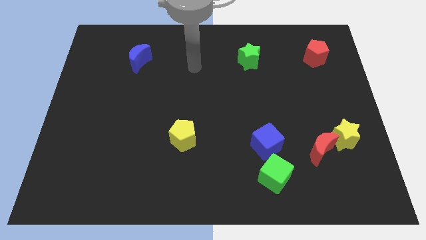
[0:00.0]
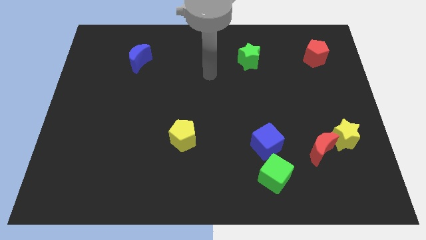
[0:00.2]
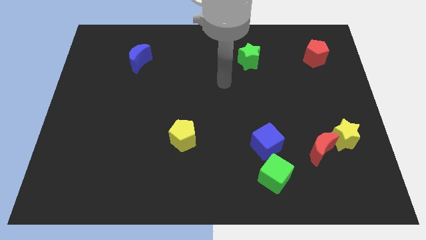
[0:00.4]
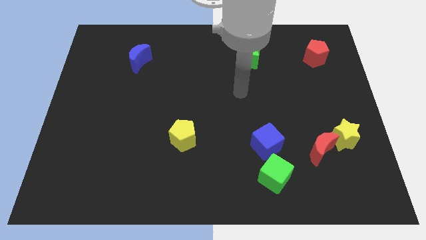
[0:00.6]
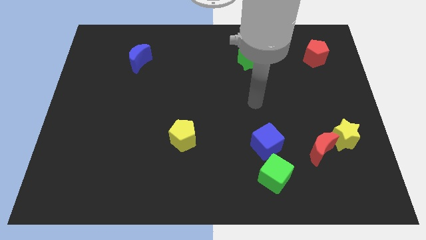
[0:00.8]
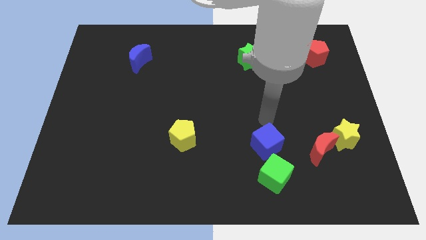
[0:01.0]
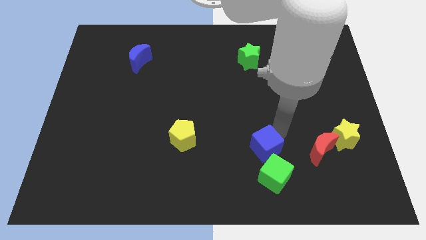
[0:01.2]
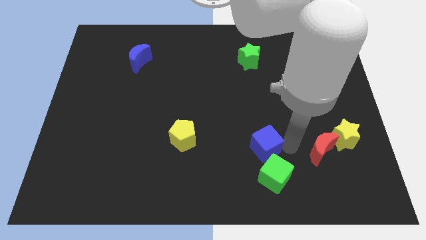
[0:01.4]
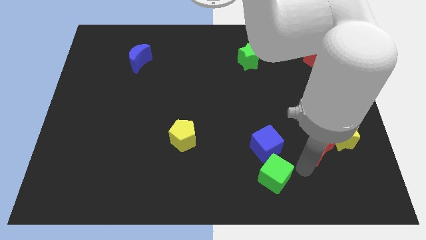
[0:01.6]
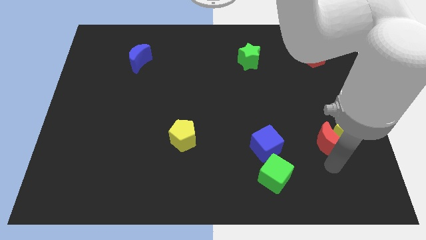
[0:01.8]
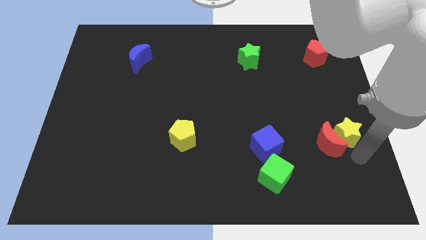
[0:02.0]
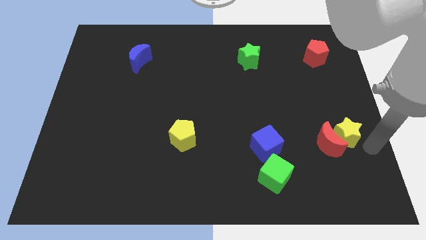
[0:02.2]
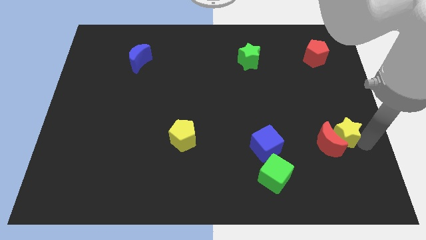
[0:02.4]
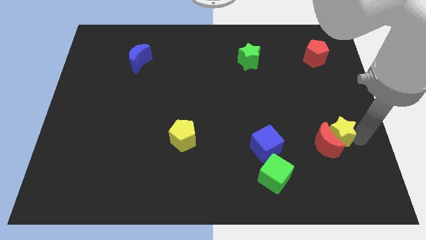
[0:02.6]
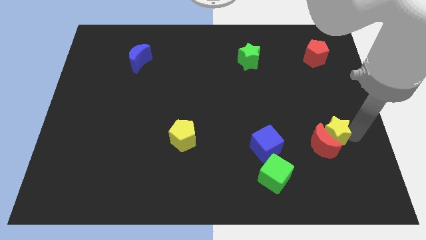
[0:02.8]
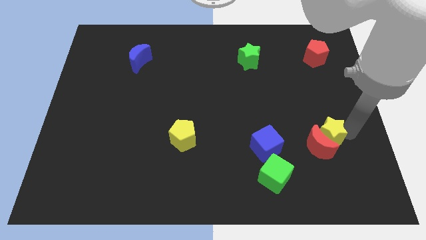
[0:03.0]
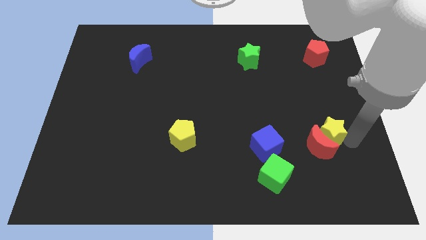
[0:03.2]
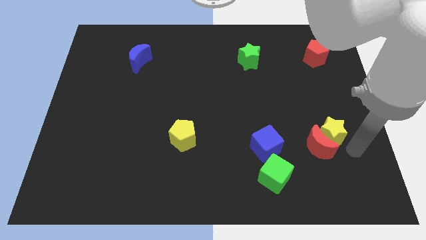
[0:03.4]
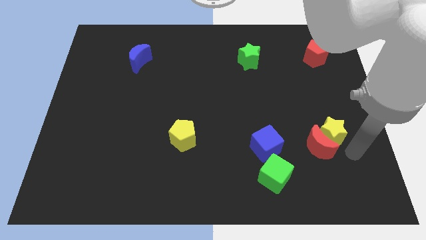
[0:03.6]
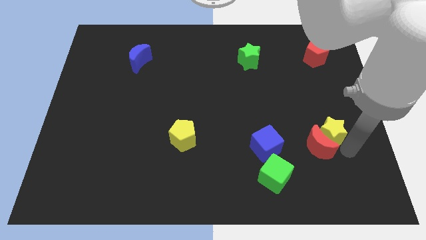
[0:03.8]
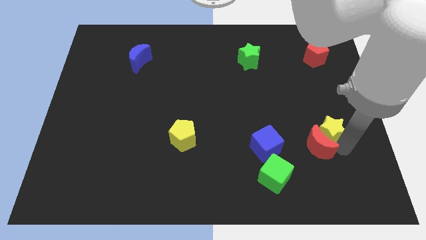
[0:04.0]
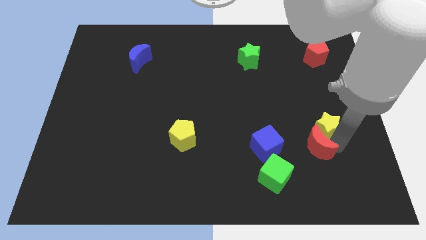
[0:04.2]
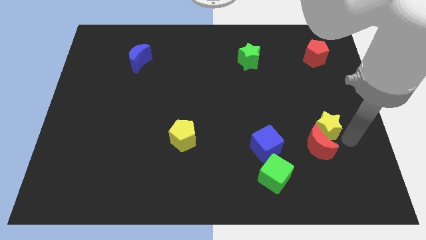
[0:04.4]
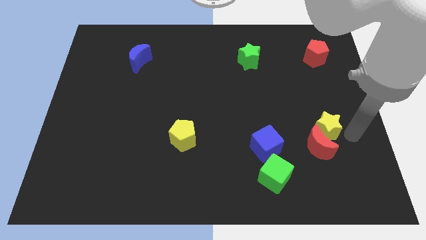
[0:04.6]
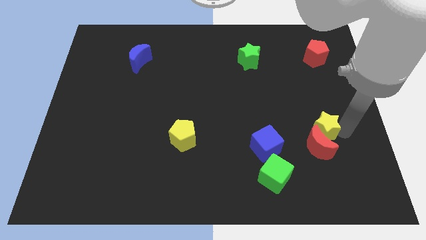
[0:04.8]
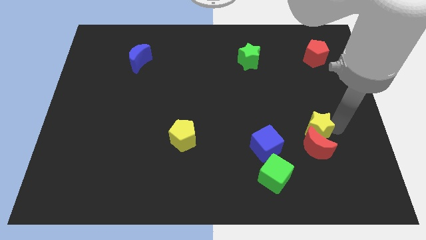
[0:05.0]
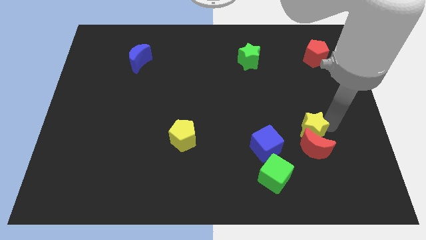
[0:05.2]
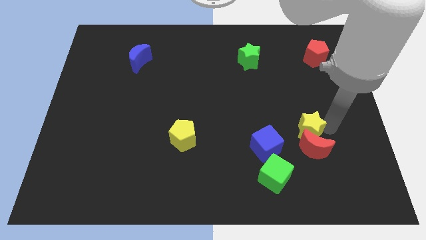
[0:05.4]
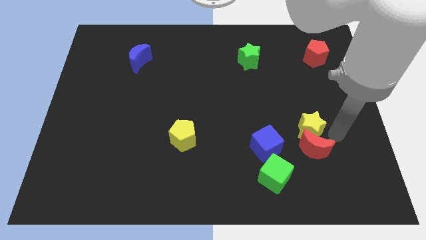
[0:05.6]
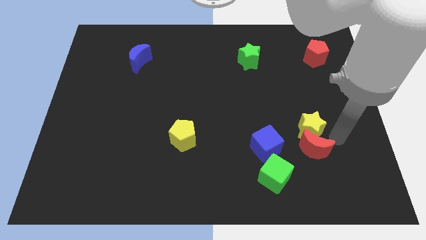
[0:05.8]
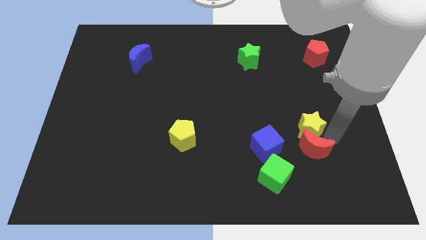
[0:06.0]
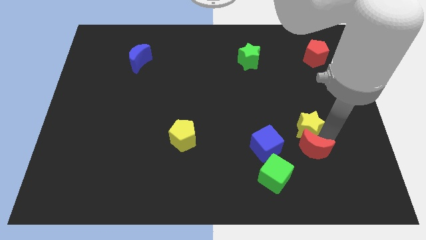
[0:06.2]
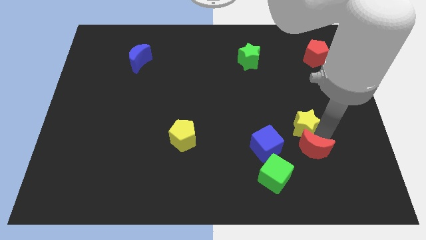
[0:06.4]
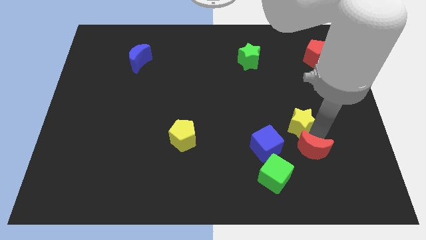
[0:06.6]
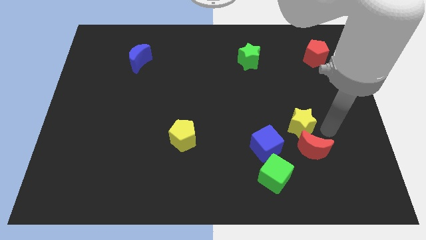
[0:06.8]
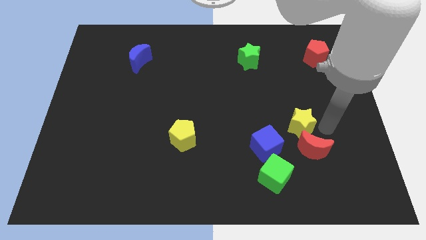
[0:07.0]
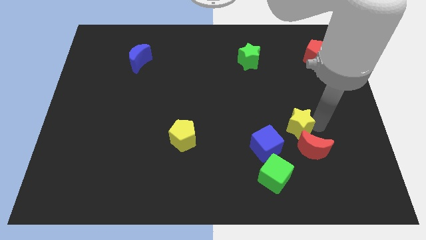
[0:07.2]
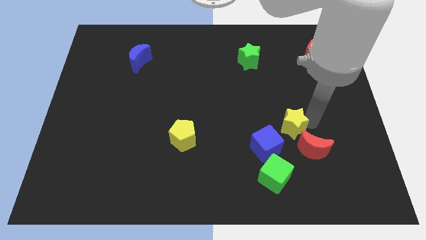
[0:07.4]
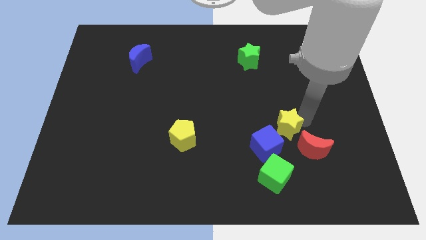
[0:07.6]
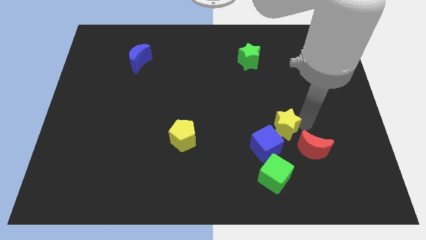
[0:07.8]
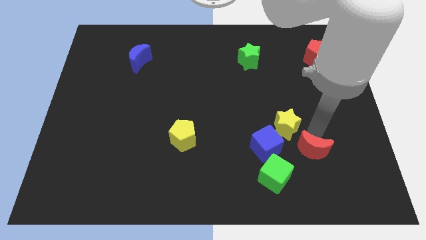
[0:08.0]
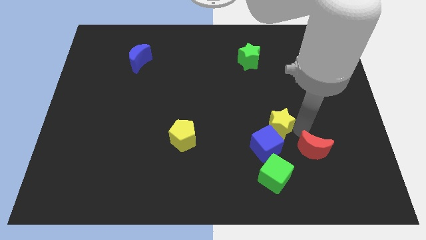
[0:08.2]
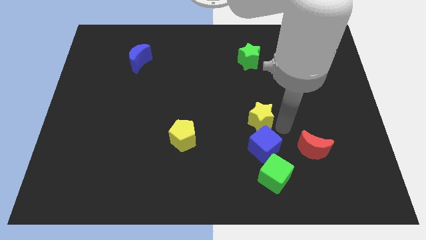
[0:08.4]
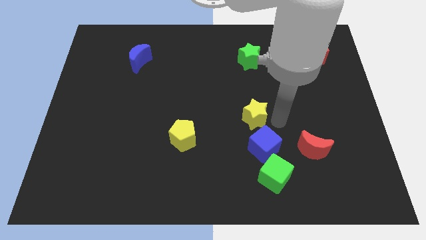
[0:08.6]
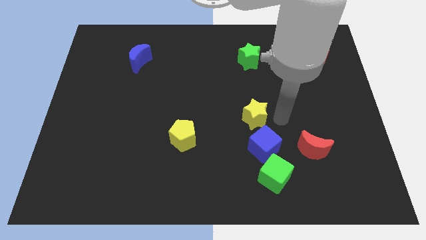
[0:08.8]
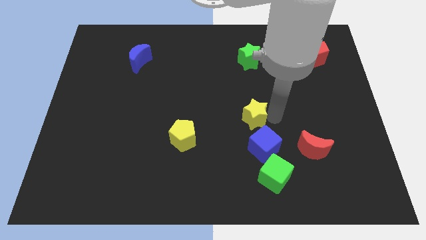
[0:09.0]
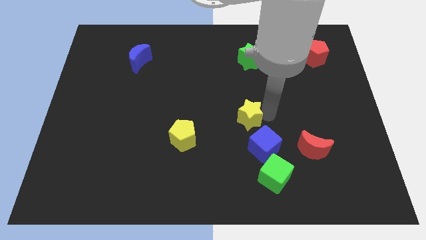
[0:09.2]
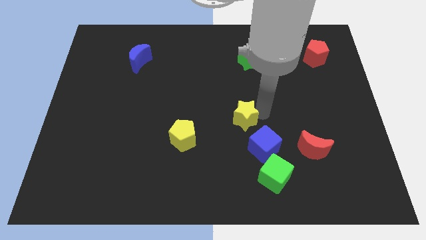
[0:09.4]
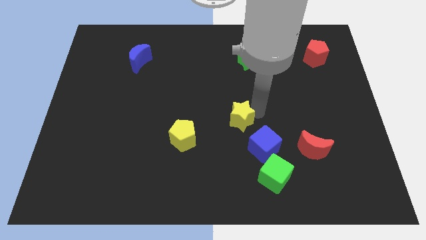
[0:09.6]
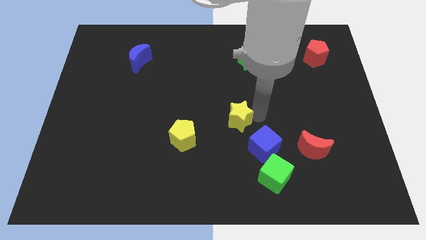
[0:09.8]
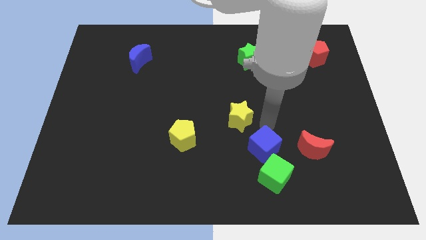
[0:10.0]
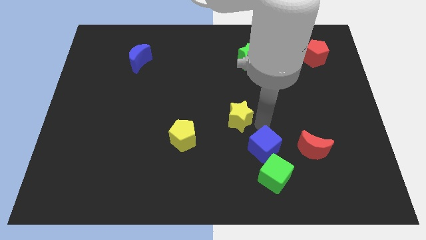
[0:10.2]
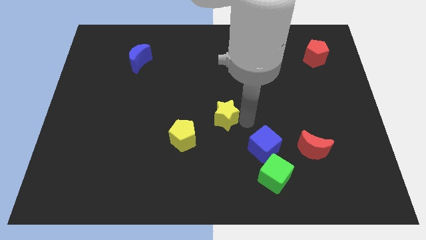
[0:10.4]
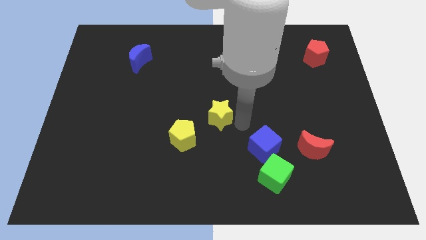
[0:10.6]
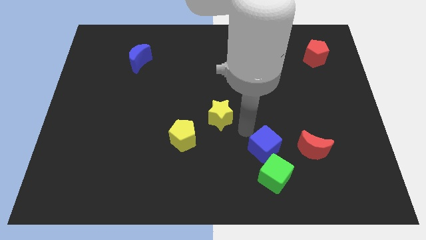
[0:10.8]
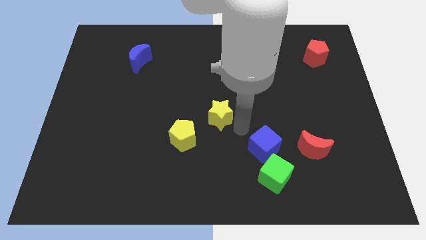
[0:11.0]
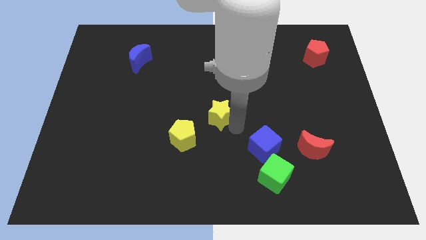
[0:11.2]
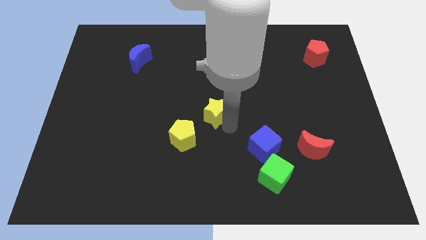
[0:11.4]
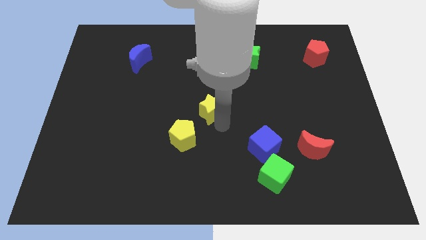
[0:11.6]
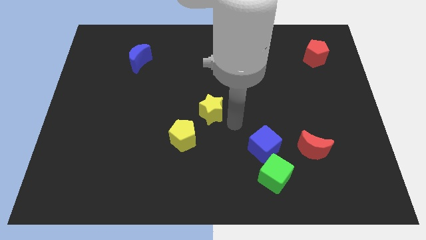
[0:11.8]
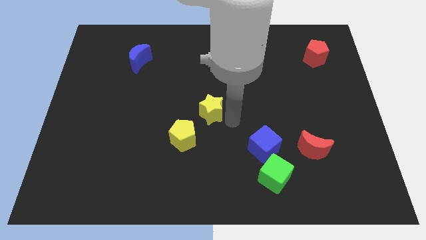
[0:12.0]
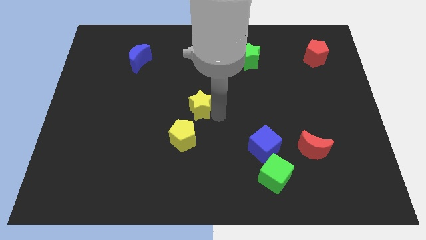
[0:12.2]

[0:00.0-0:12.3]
move the yellow star above the yellow pentagon
